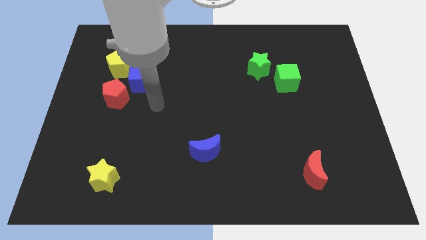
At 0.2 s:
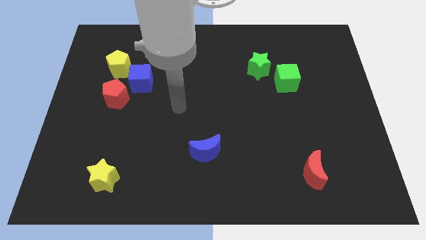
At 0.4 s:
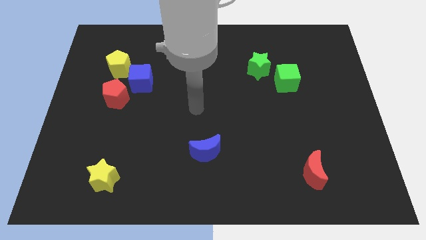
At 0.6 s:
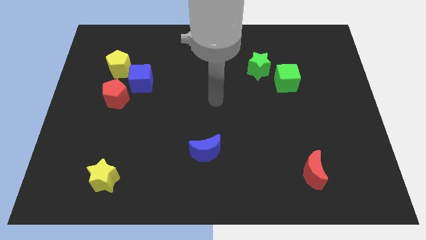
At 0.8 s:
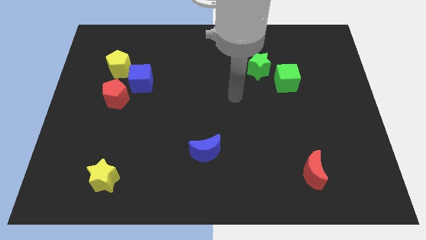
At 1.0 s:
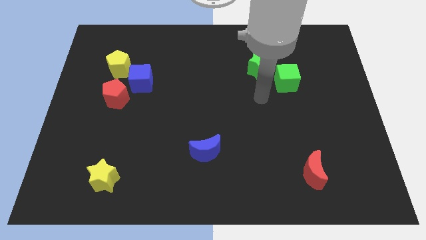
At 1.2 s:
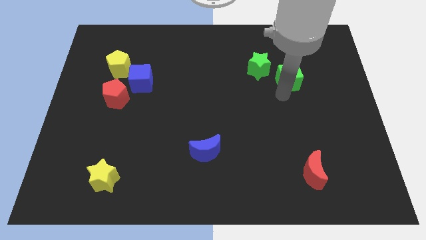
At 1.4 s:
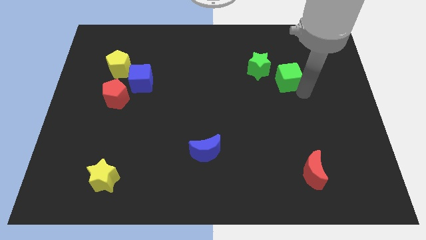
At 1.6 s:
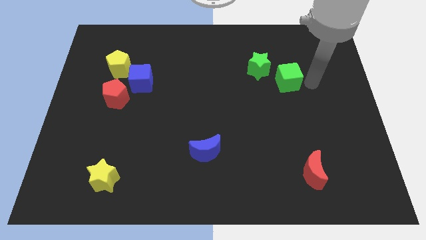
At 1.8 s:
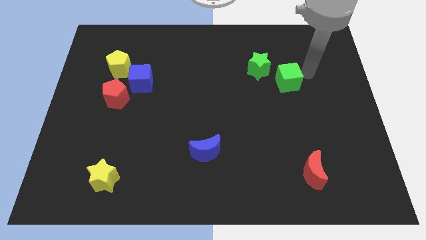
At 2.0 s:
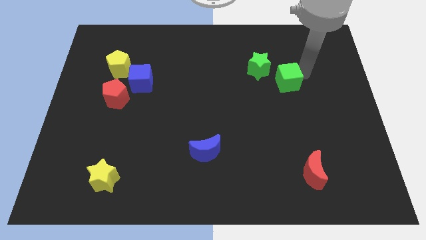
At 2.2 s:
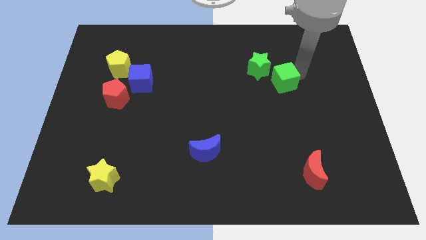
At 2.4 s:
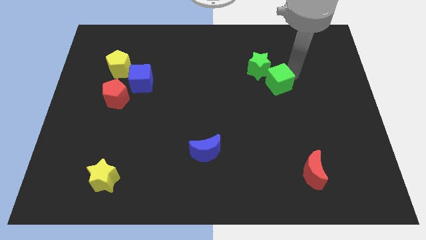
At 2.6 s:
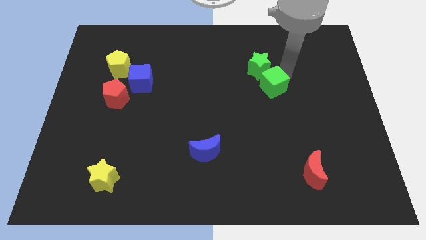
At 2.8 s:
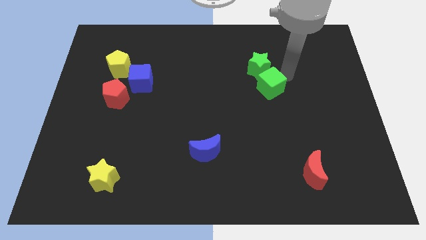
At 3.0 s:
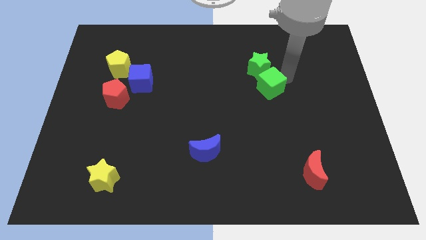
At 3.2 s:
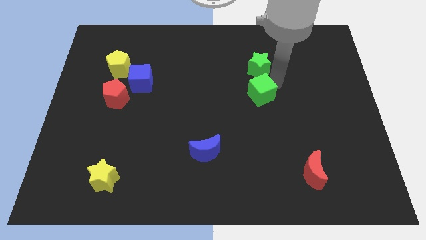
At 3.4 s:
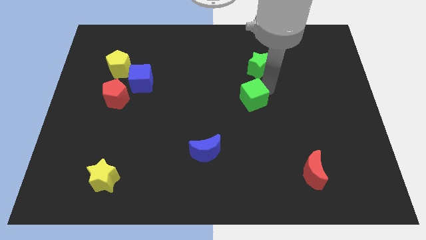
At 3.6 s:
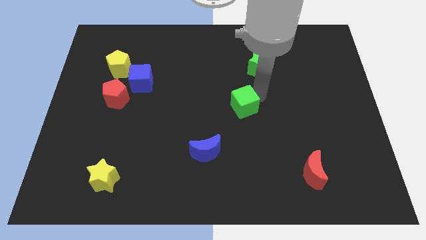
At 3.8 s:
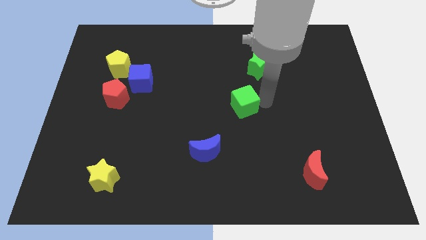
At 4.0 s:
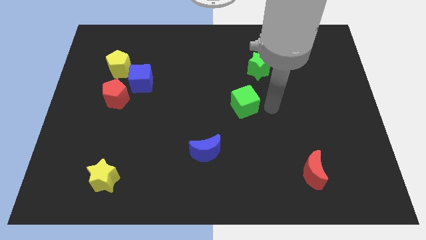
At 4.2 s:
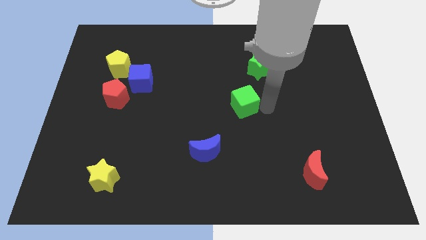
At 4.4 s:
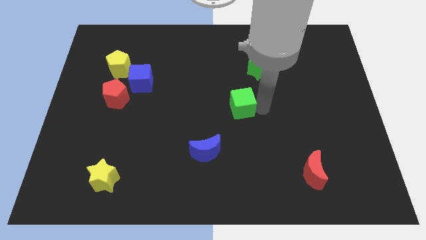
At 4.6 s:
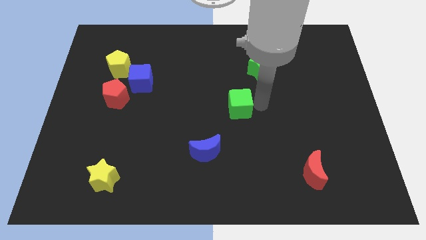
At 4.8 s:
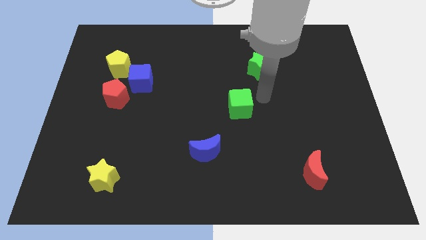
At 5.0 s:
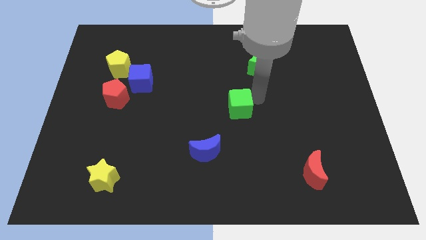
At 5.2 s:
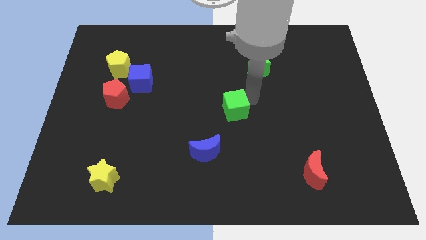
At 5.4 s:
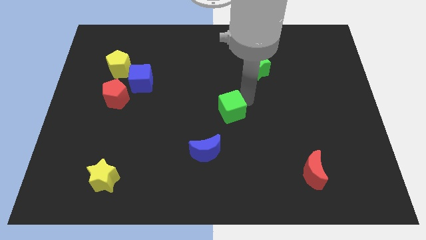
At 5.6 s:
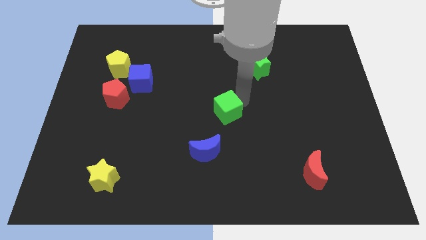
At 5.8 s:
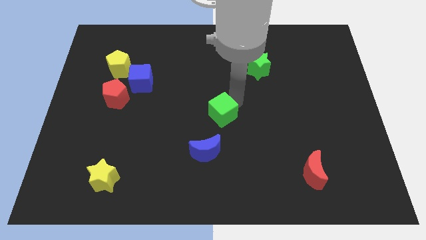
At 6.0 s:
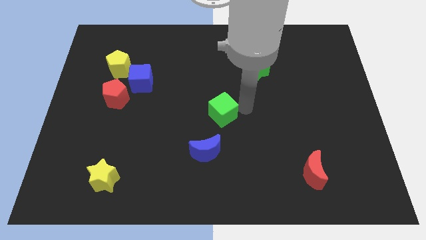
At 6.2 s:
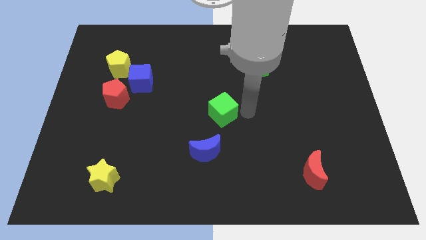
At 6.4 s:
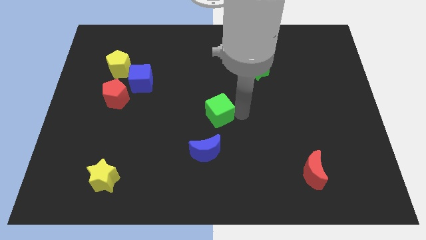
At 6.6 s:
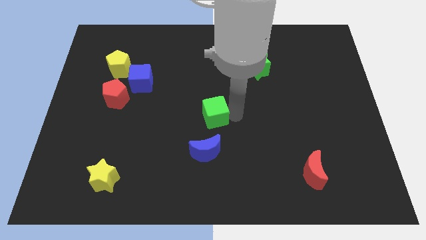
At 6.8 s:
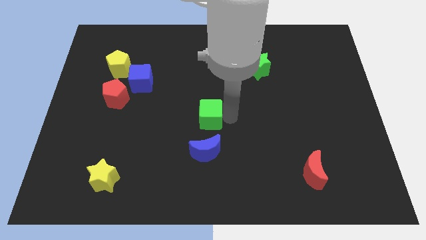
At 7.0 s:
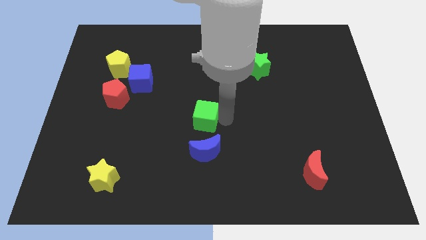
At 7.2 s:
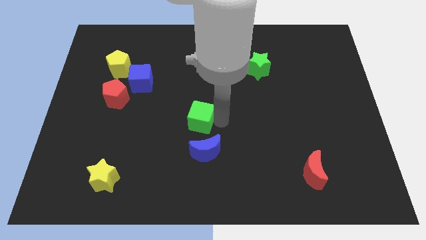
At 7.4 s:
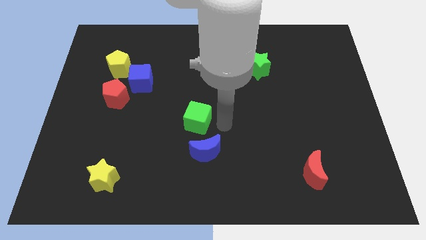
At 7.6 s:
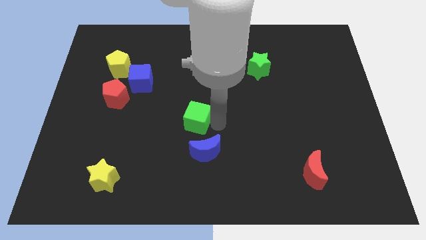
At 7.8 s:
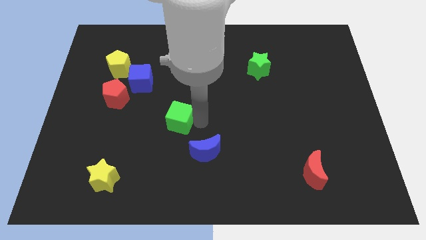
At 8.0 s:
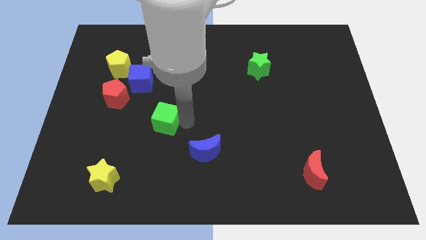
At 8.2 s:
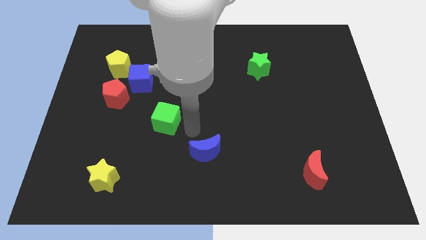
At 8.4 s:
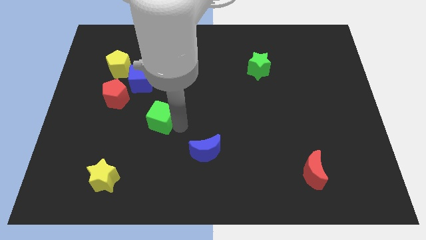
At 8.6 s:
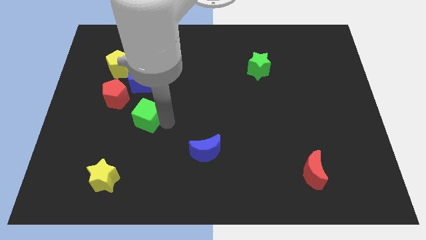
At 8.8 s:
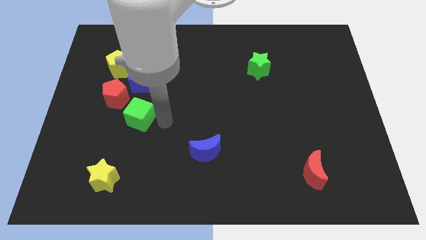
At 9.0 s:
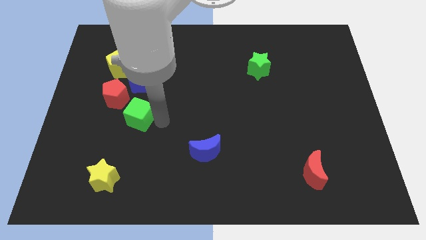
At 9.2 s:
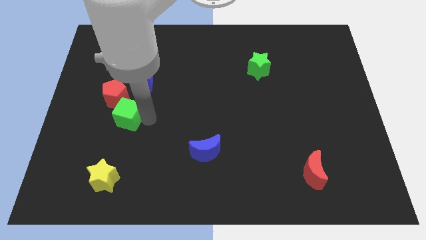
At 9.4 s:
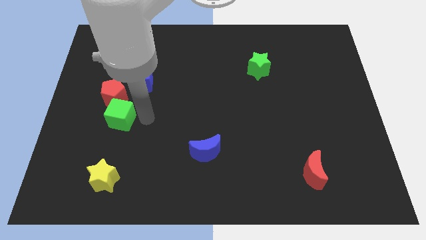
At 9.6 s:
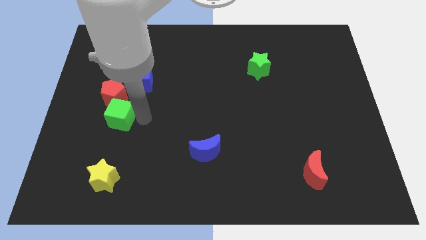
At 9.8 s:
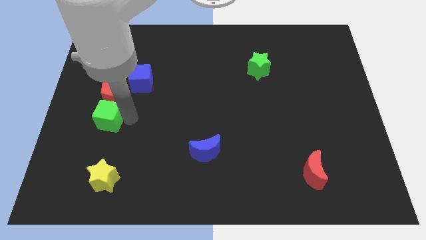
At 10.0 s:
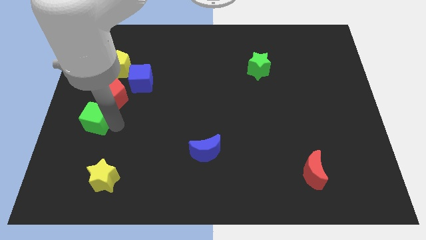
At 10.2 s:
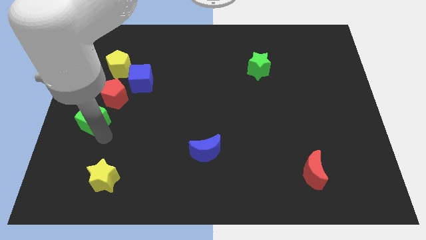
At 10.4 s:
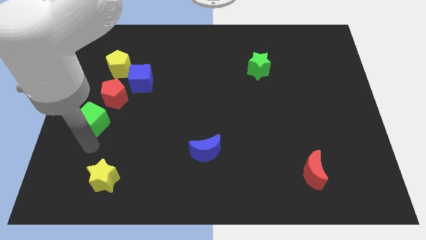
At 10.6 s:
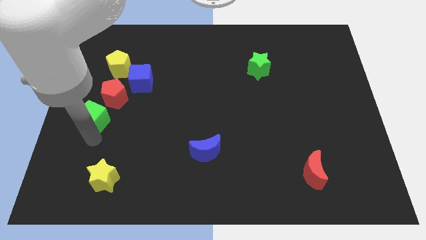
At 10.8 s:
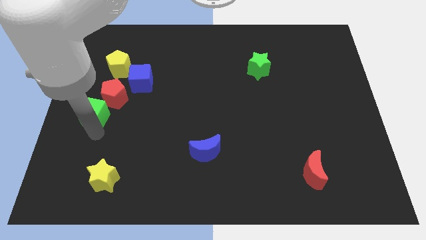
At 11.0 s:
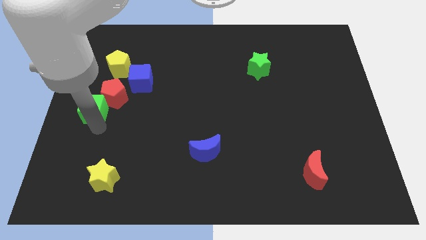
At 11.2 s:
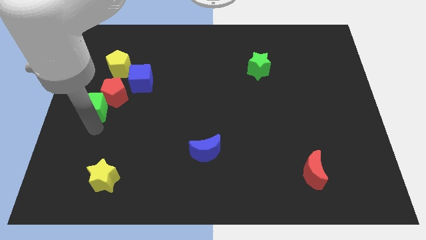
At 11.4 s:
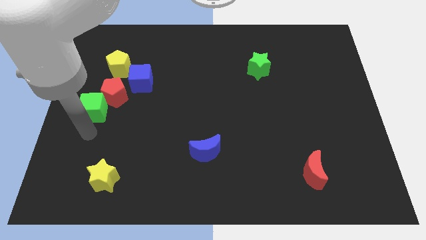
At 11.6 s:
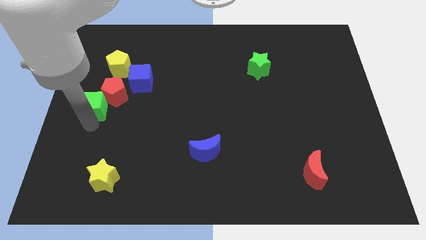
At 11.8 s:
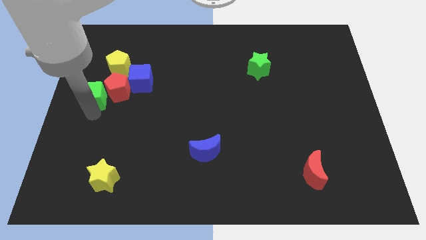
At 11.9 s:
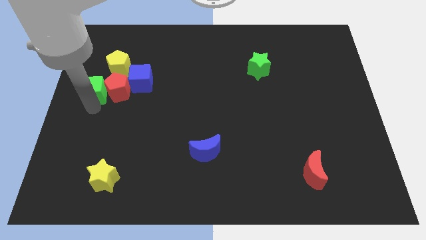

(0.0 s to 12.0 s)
move the green cube to the left of the blue cube

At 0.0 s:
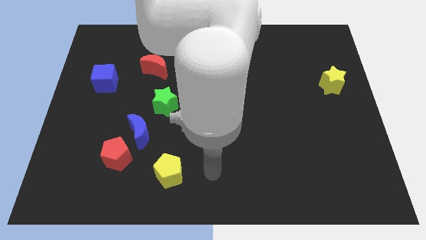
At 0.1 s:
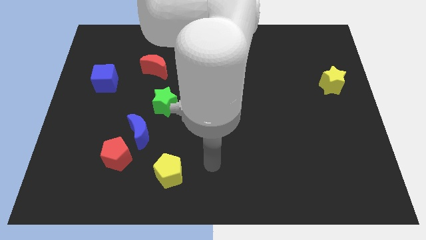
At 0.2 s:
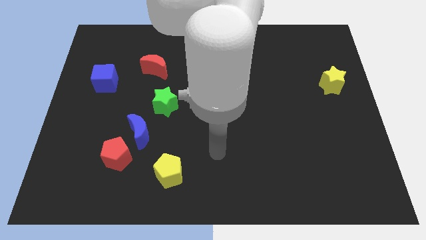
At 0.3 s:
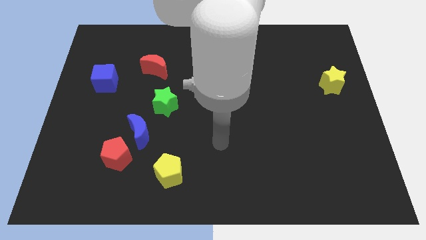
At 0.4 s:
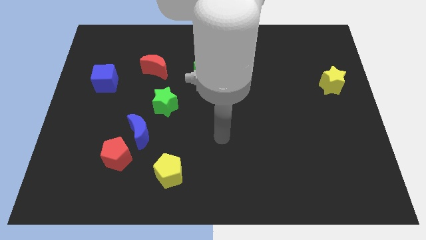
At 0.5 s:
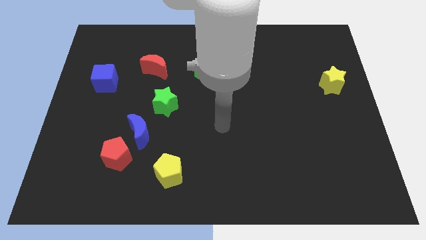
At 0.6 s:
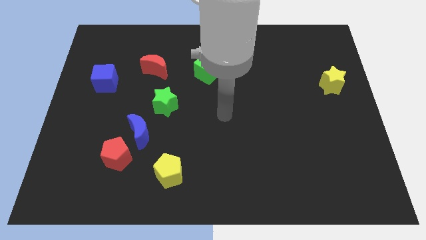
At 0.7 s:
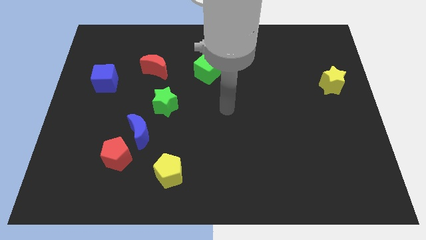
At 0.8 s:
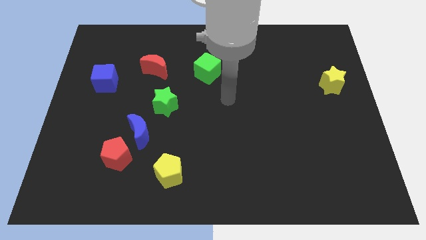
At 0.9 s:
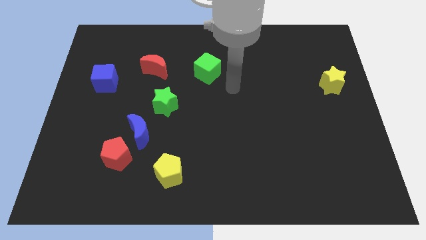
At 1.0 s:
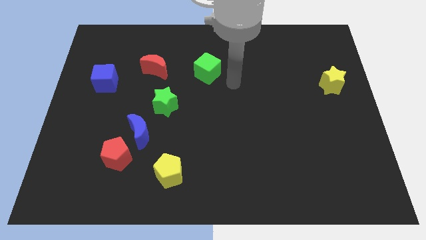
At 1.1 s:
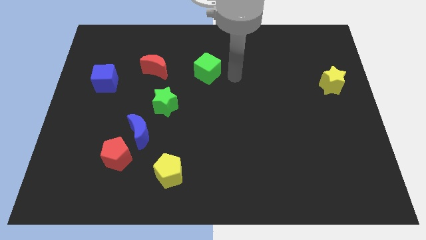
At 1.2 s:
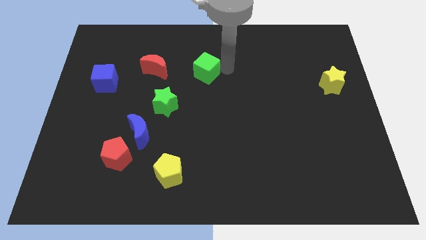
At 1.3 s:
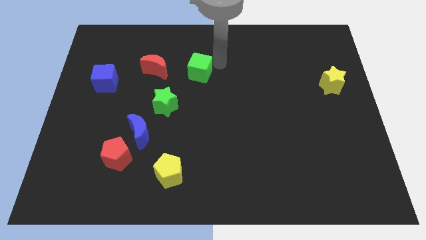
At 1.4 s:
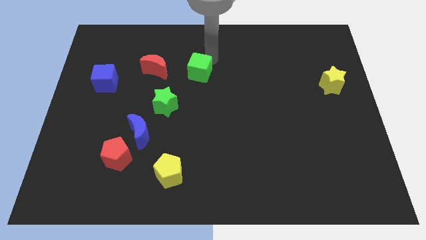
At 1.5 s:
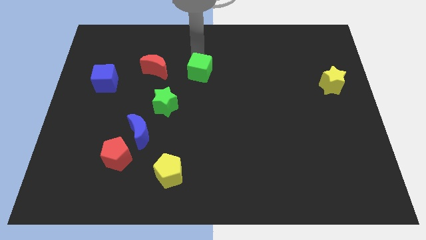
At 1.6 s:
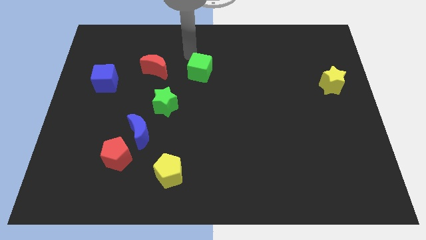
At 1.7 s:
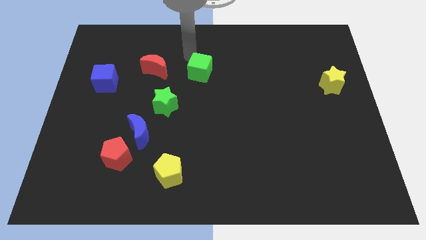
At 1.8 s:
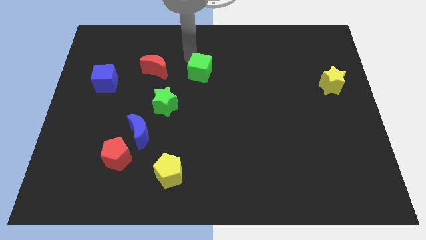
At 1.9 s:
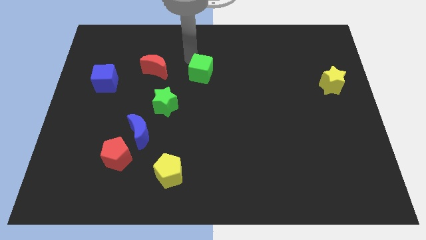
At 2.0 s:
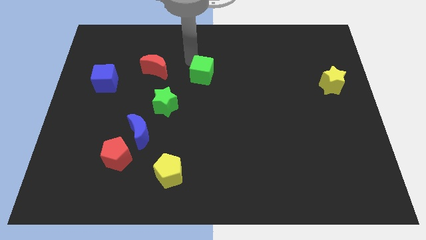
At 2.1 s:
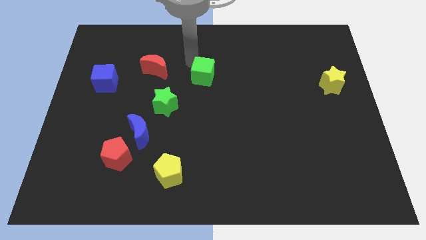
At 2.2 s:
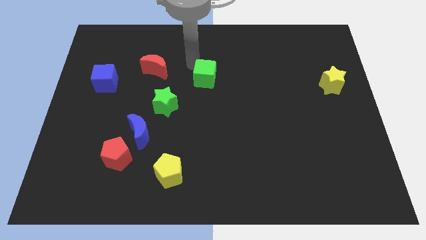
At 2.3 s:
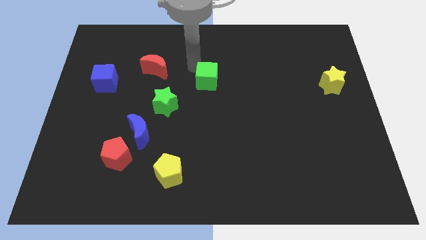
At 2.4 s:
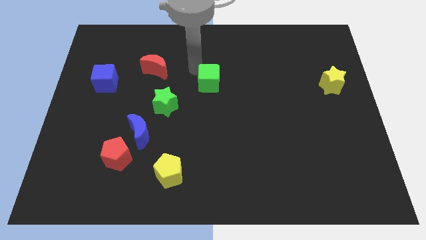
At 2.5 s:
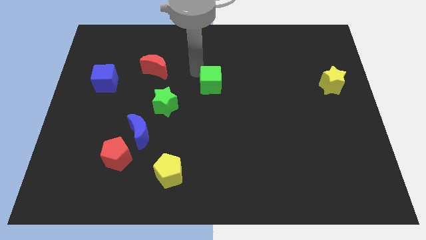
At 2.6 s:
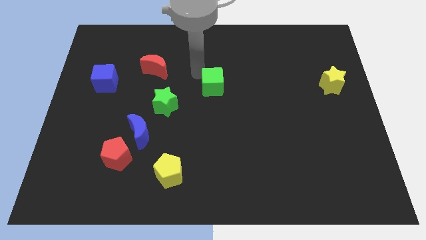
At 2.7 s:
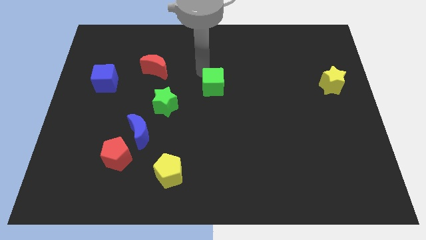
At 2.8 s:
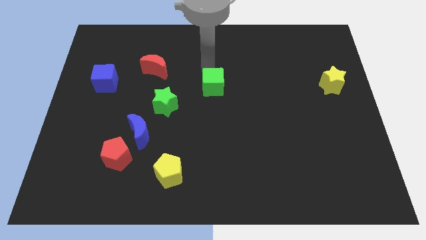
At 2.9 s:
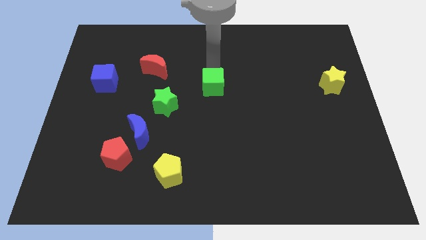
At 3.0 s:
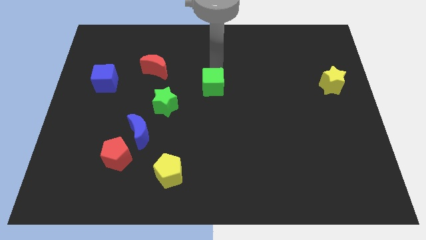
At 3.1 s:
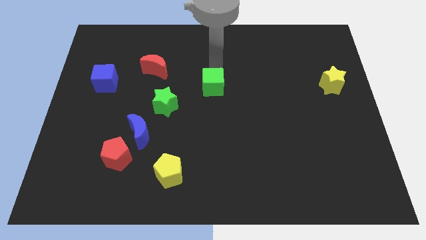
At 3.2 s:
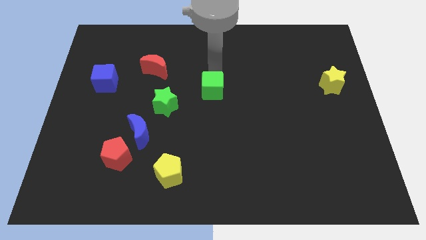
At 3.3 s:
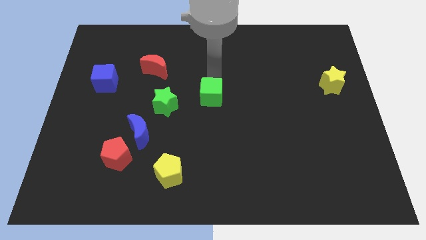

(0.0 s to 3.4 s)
move the green cube right of the green star
